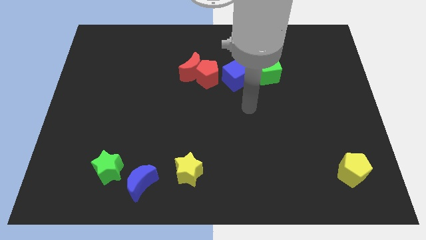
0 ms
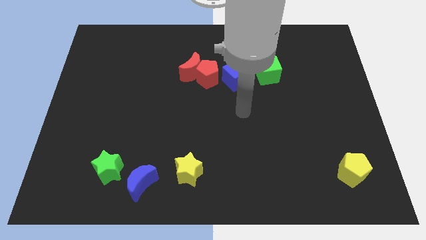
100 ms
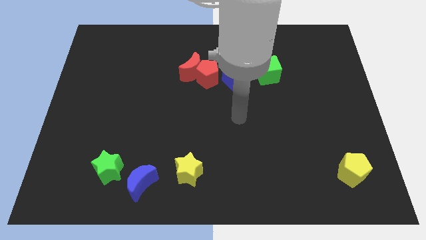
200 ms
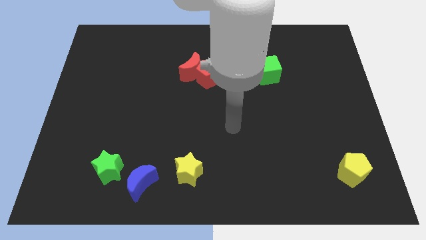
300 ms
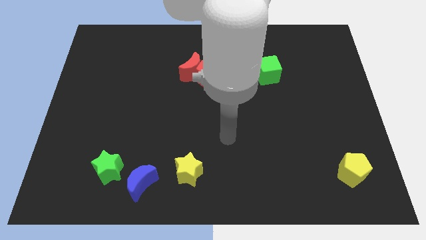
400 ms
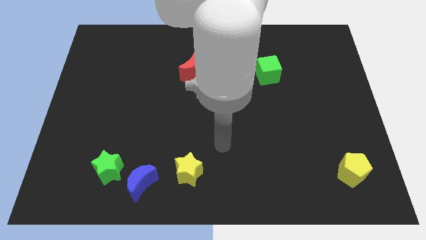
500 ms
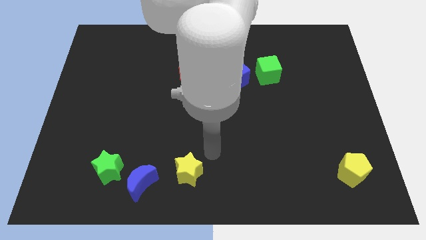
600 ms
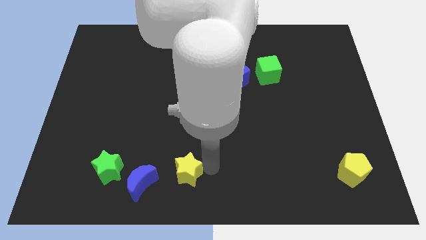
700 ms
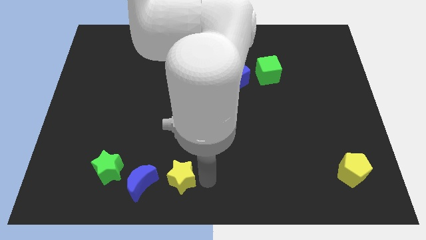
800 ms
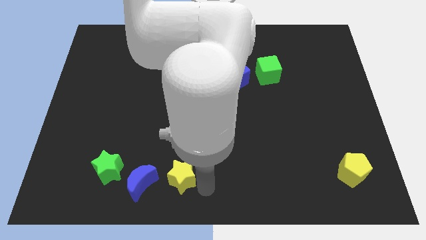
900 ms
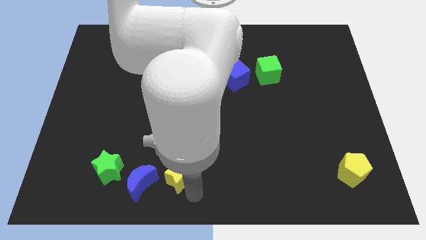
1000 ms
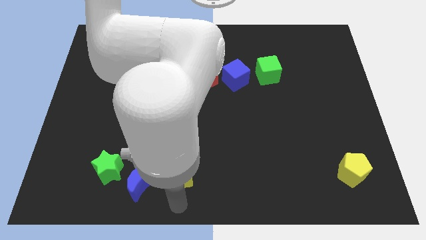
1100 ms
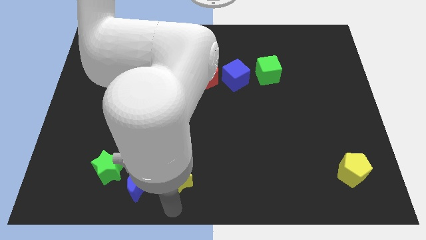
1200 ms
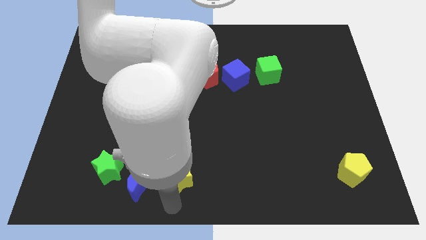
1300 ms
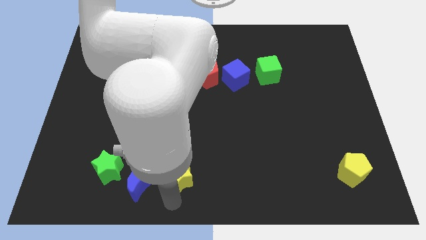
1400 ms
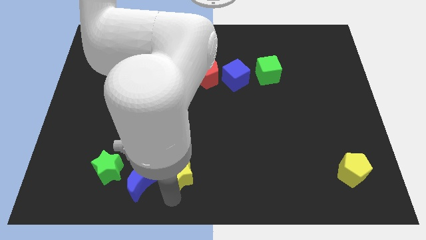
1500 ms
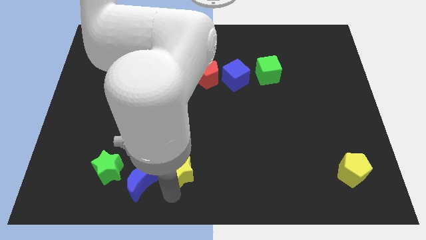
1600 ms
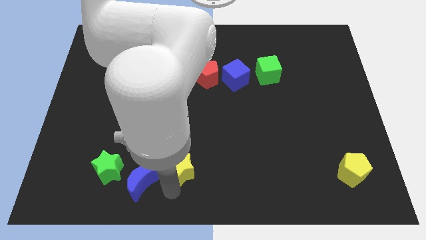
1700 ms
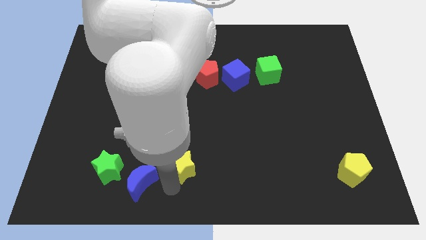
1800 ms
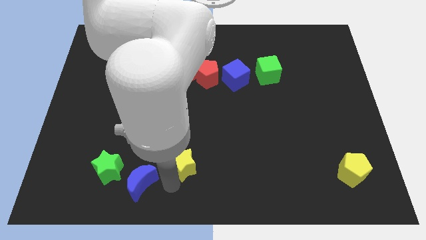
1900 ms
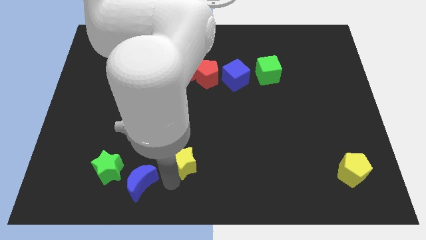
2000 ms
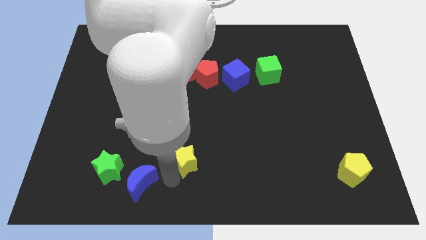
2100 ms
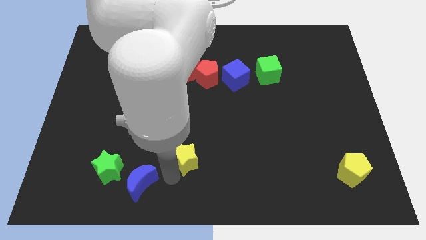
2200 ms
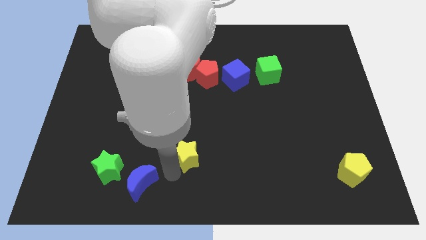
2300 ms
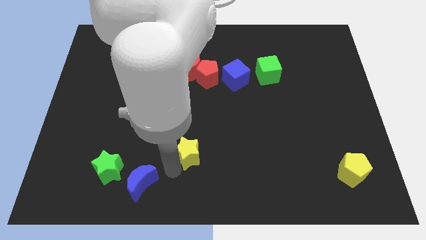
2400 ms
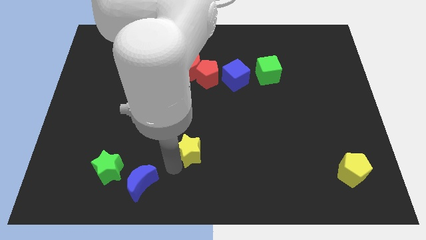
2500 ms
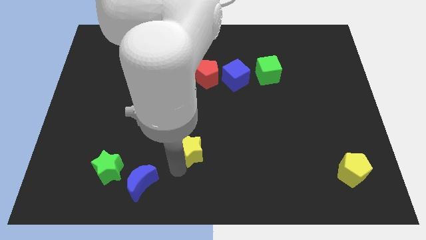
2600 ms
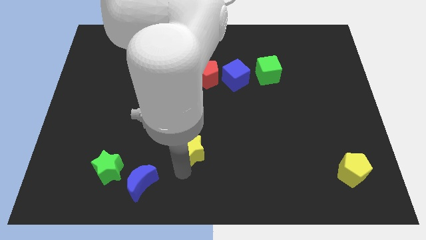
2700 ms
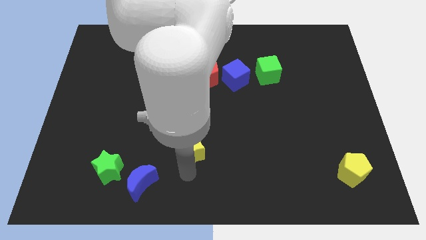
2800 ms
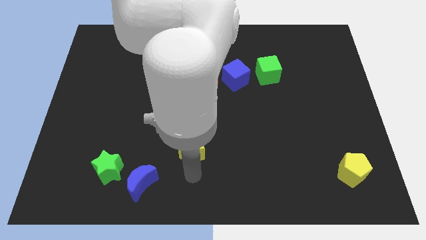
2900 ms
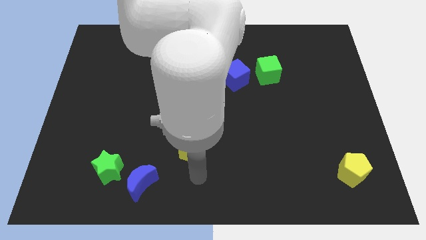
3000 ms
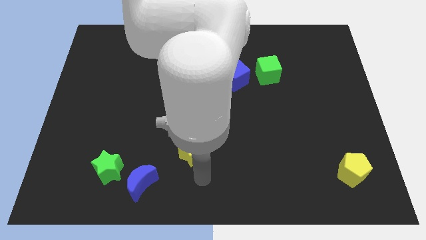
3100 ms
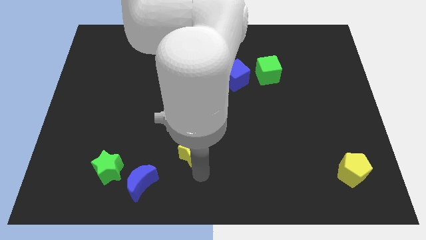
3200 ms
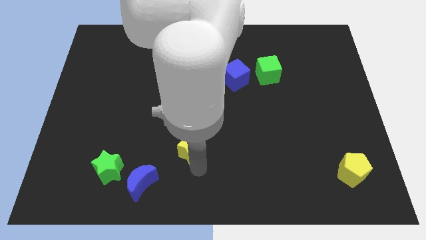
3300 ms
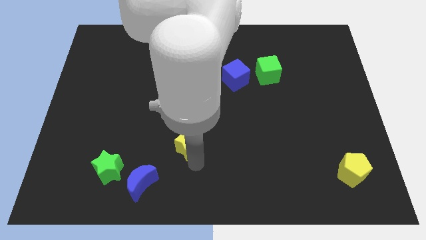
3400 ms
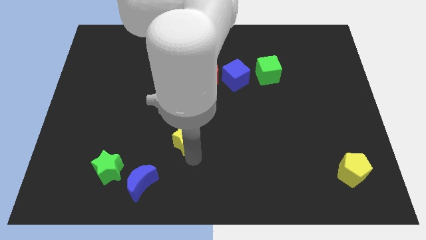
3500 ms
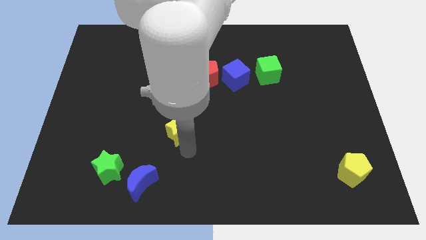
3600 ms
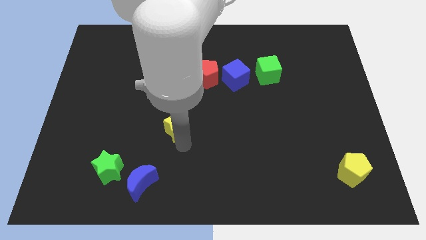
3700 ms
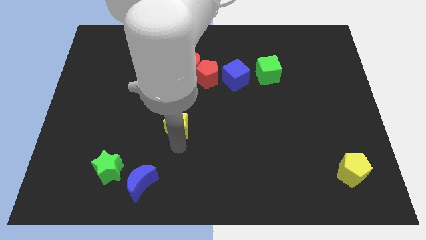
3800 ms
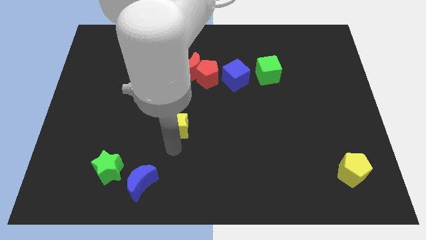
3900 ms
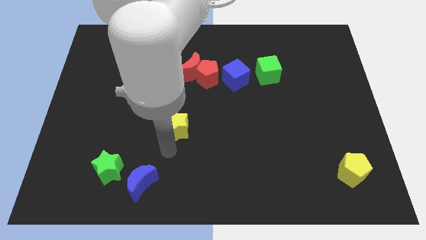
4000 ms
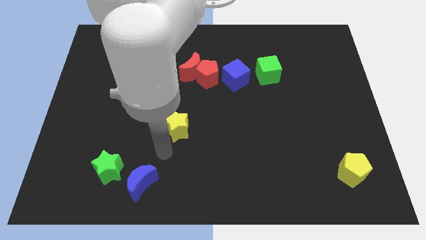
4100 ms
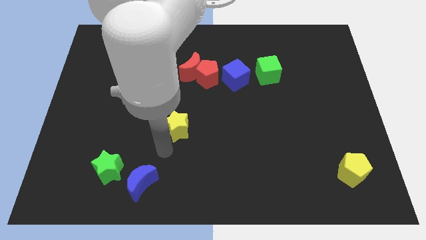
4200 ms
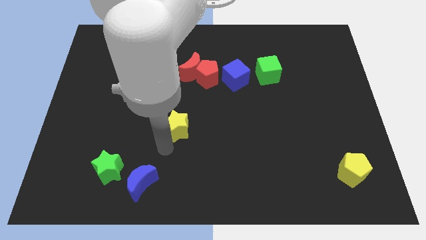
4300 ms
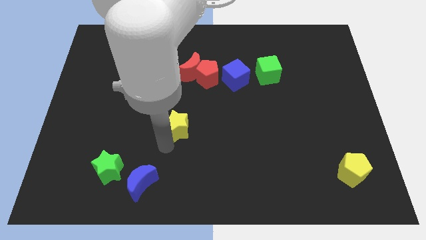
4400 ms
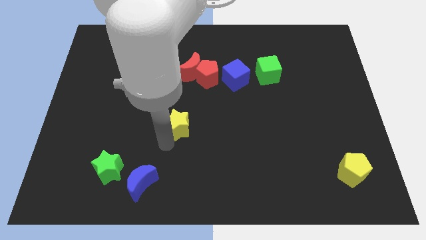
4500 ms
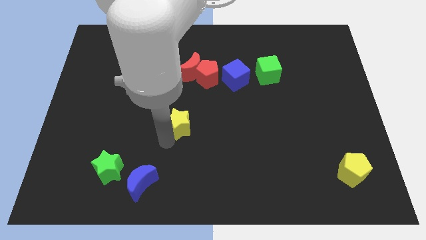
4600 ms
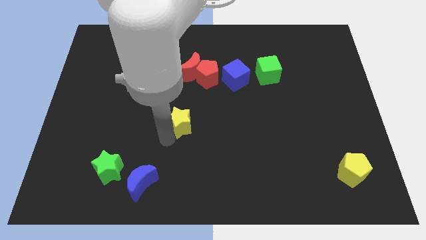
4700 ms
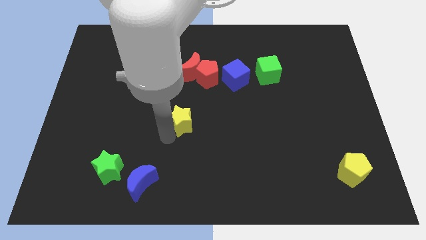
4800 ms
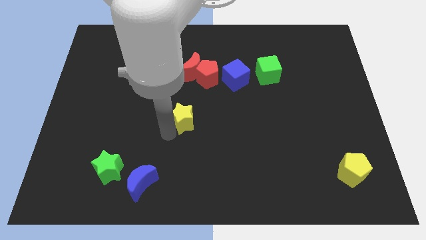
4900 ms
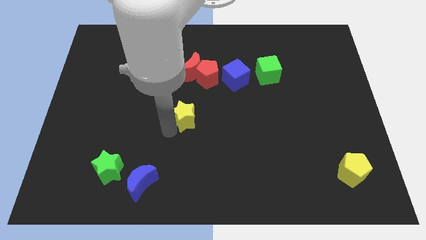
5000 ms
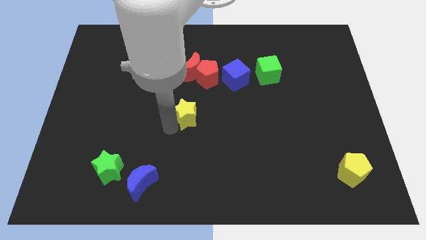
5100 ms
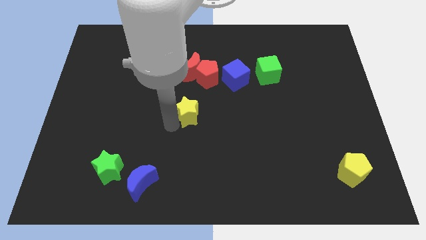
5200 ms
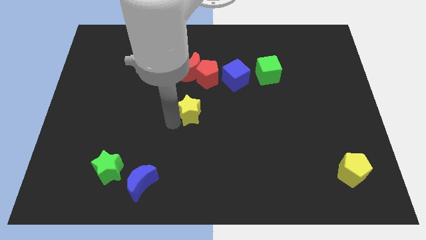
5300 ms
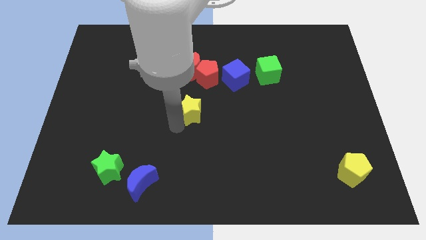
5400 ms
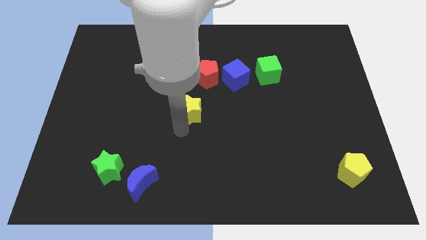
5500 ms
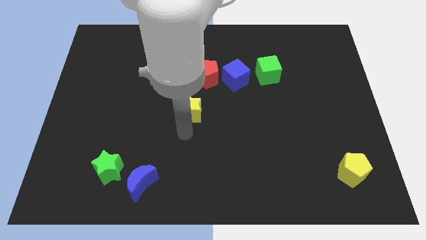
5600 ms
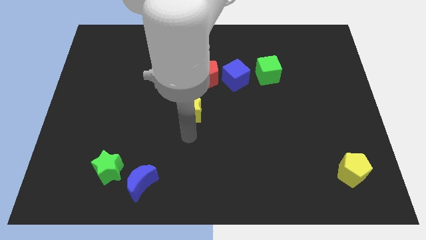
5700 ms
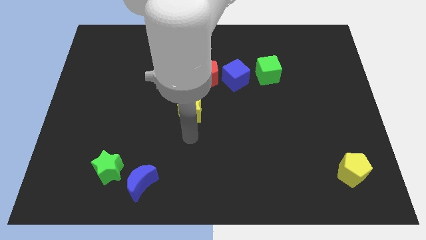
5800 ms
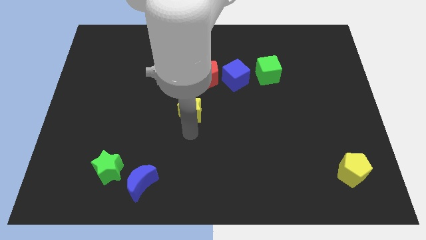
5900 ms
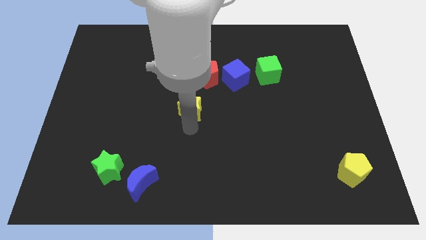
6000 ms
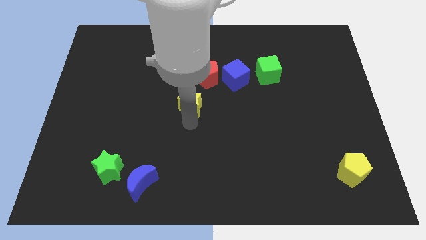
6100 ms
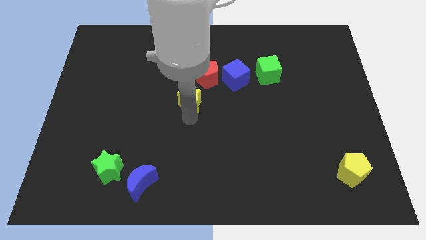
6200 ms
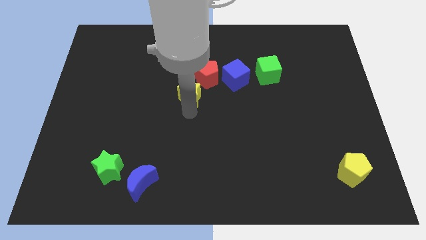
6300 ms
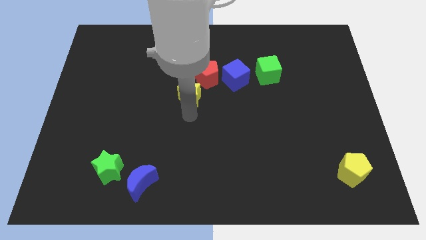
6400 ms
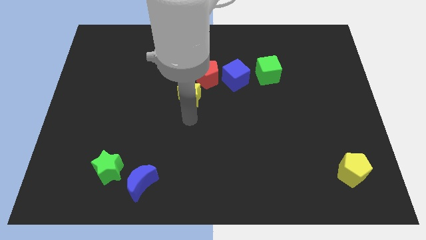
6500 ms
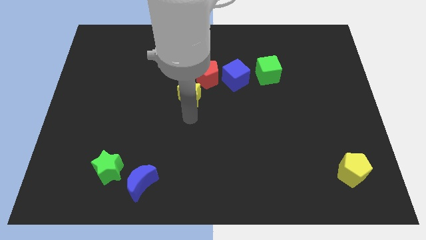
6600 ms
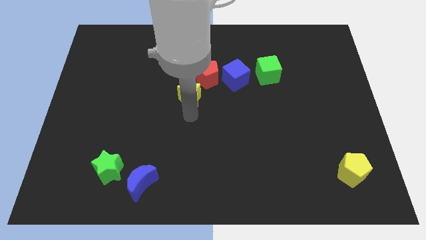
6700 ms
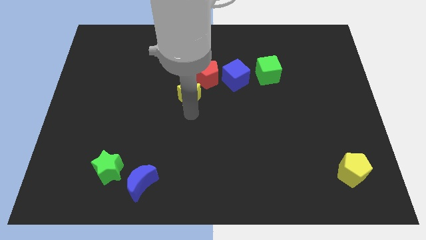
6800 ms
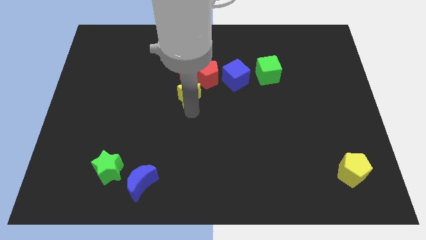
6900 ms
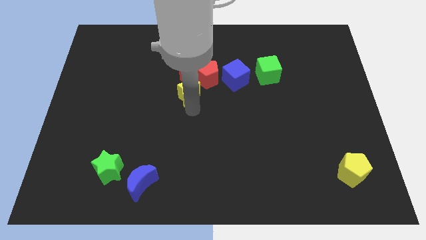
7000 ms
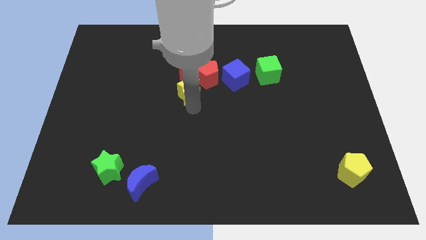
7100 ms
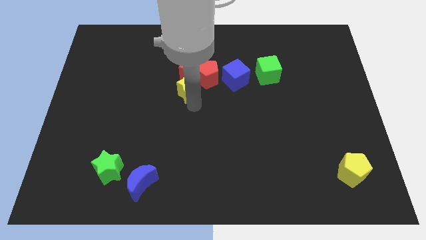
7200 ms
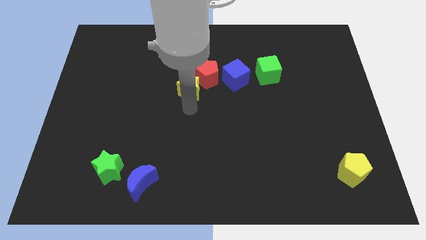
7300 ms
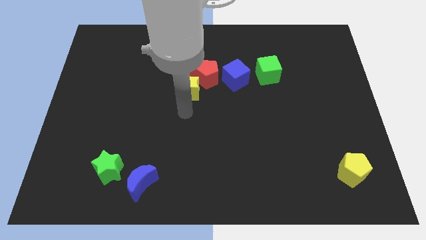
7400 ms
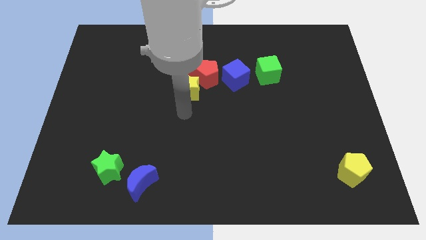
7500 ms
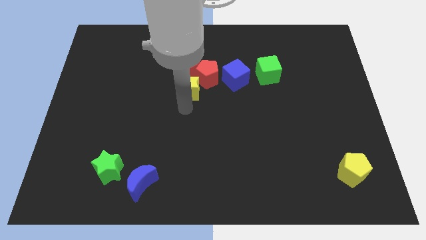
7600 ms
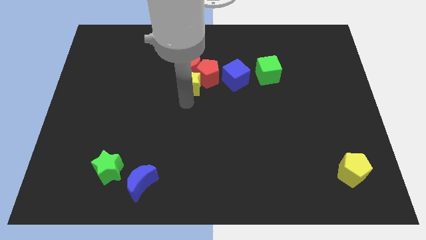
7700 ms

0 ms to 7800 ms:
move the yellow star next to the red moon
